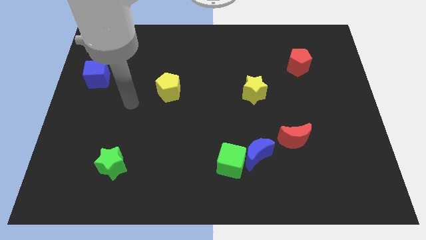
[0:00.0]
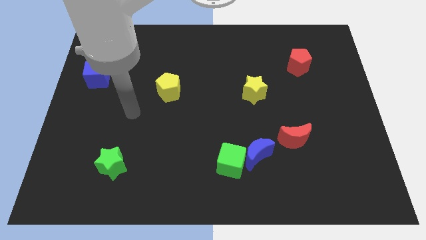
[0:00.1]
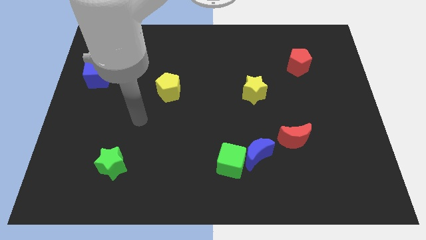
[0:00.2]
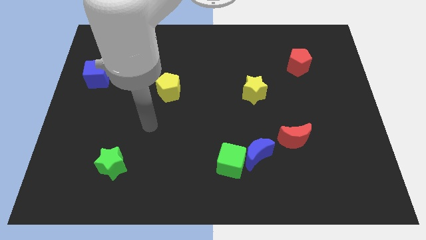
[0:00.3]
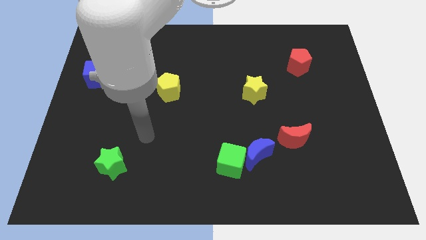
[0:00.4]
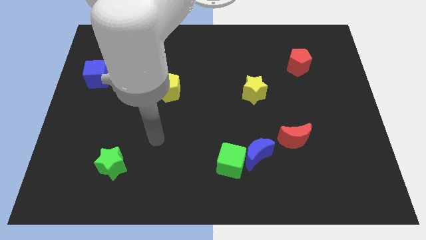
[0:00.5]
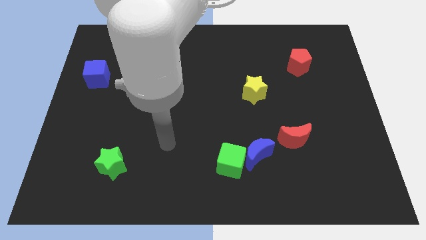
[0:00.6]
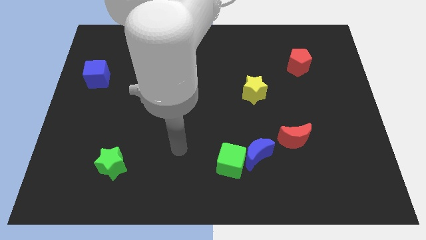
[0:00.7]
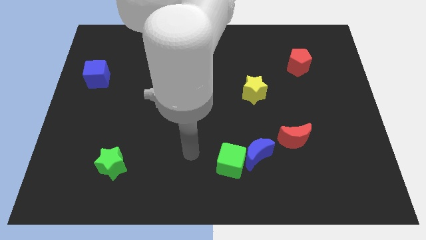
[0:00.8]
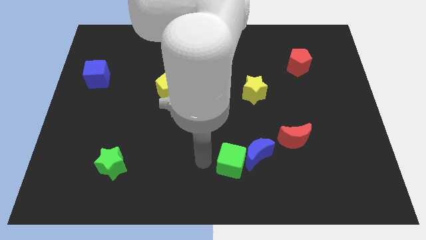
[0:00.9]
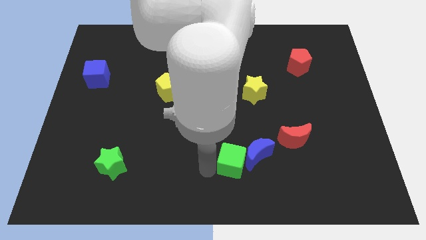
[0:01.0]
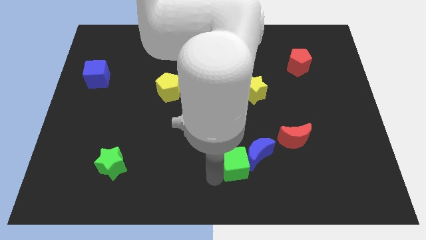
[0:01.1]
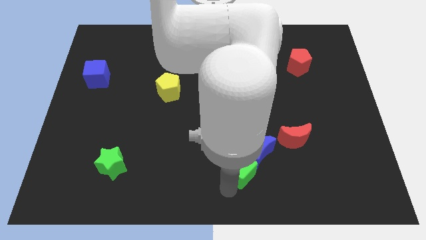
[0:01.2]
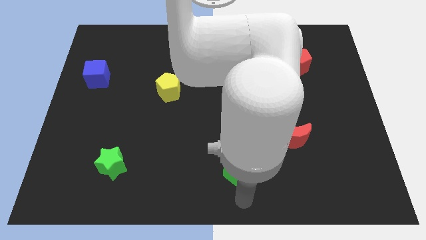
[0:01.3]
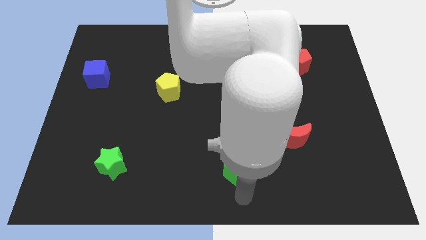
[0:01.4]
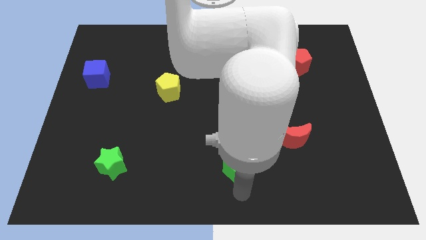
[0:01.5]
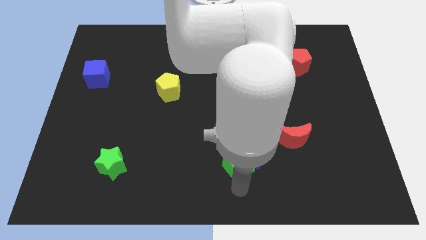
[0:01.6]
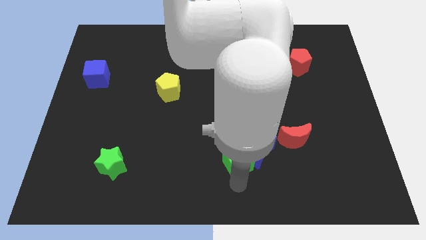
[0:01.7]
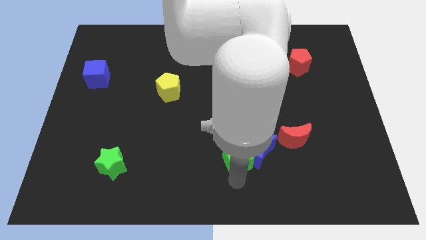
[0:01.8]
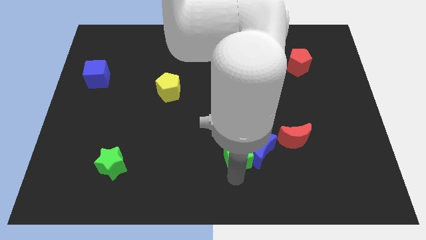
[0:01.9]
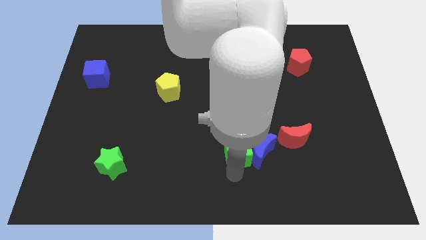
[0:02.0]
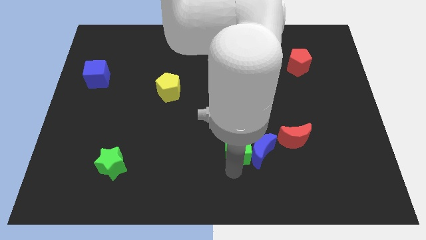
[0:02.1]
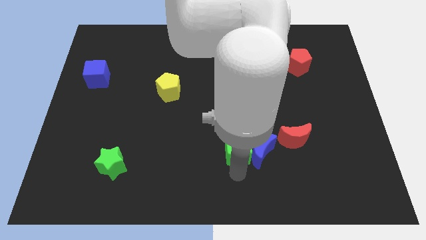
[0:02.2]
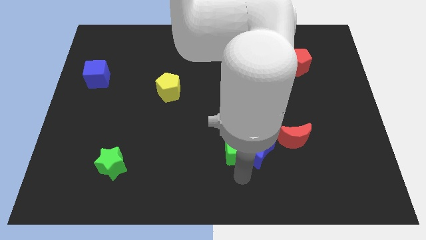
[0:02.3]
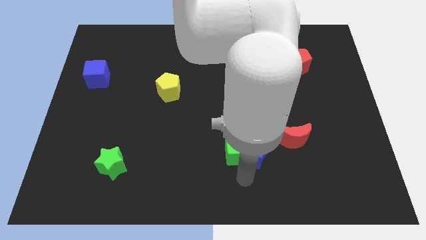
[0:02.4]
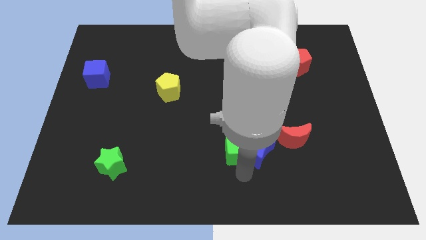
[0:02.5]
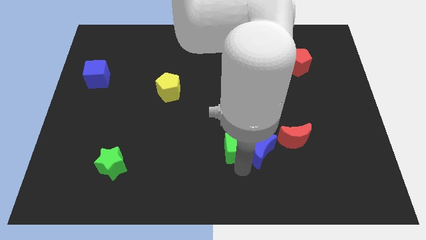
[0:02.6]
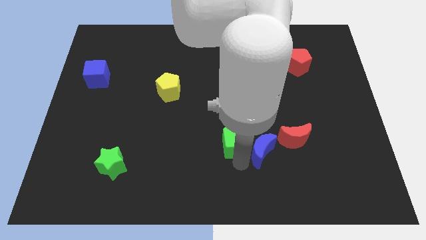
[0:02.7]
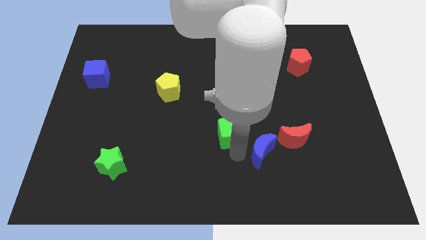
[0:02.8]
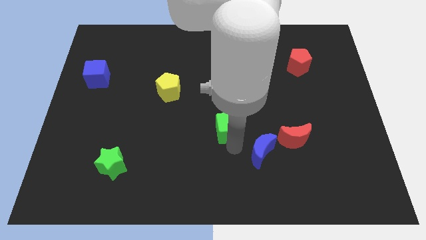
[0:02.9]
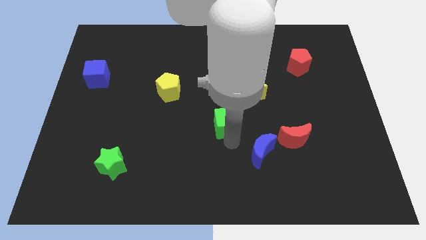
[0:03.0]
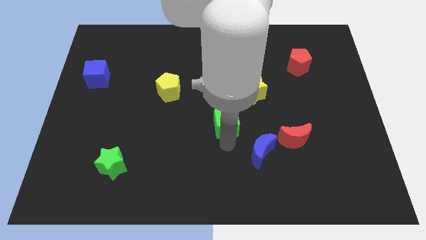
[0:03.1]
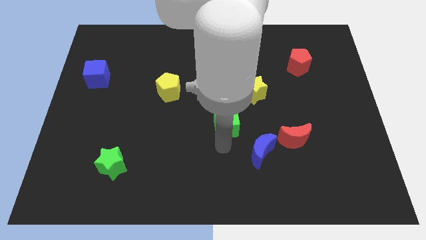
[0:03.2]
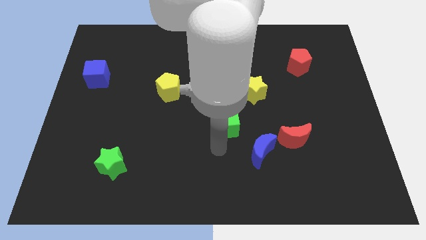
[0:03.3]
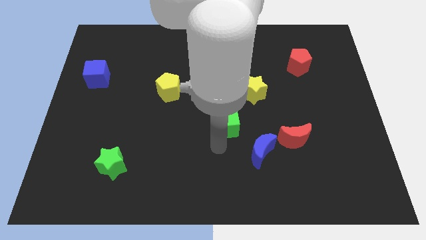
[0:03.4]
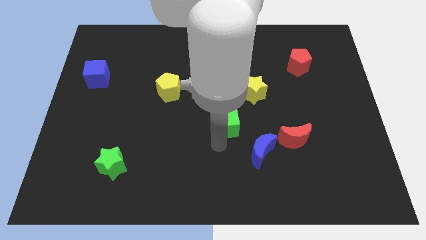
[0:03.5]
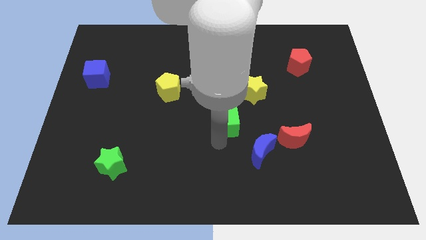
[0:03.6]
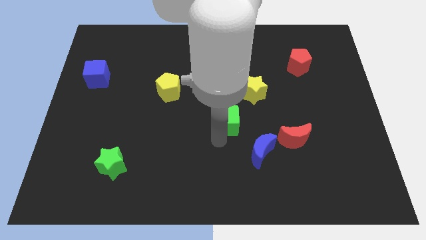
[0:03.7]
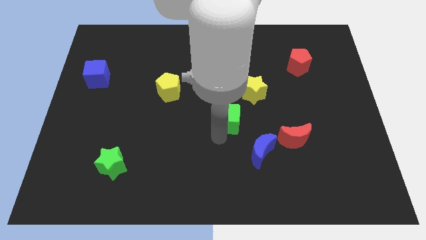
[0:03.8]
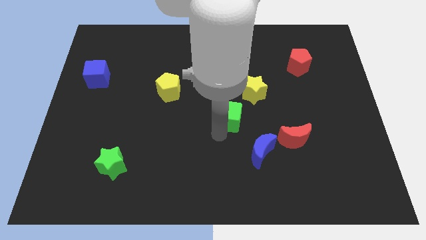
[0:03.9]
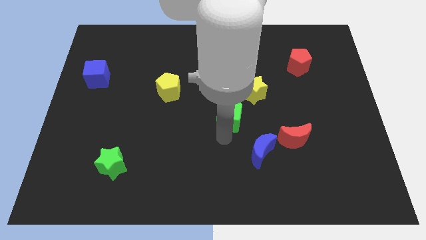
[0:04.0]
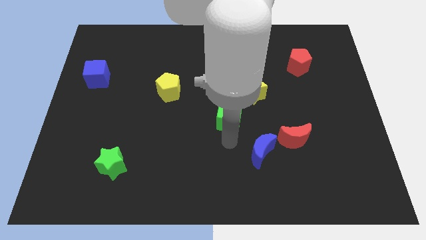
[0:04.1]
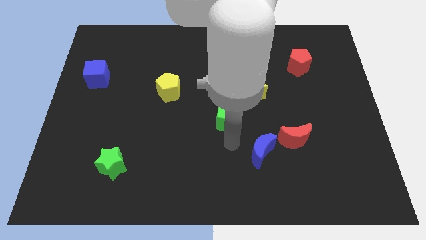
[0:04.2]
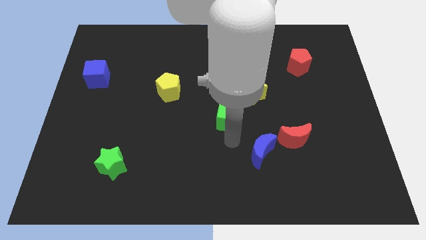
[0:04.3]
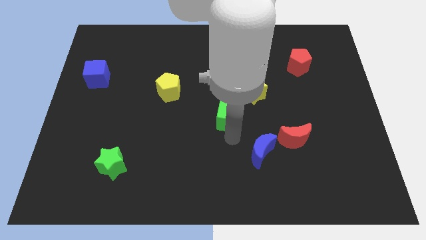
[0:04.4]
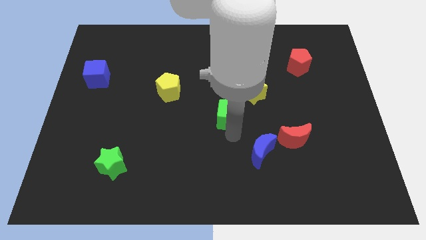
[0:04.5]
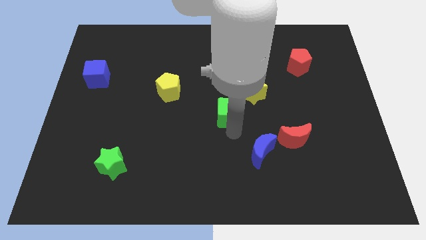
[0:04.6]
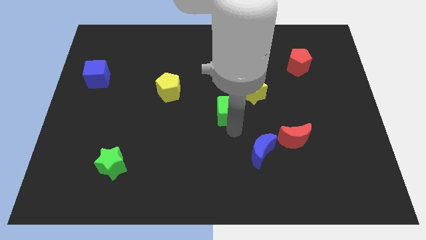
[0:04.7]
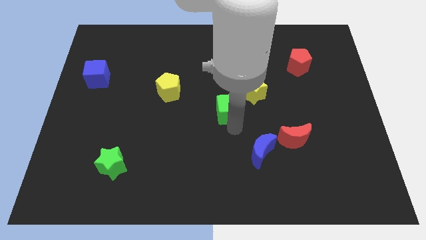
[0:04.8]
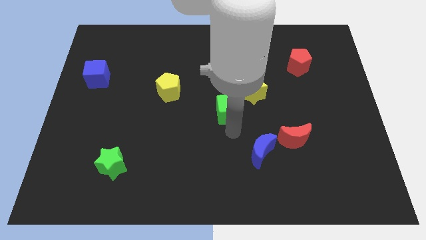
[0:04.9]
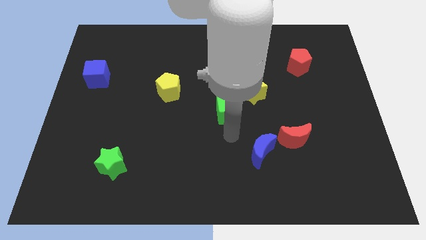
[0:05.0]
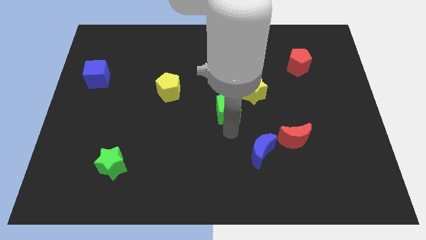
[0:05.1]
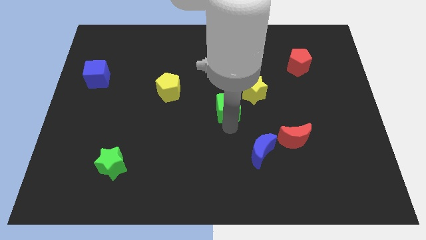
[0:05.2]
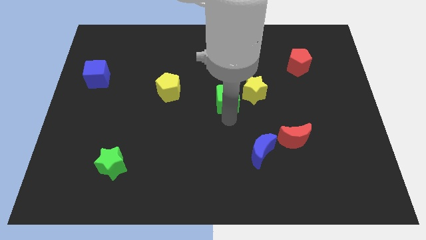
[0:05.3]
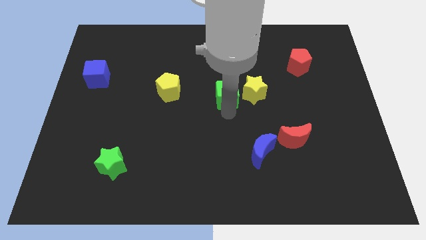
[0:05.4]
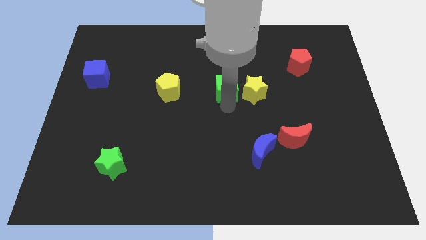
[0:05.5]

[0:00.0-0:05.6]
slide the green cube upwards

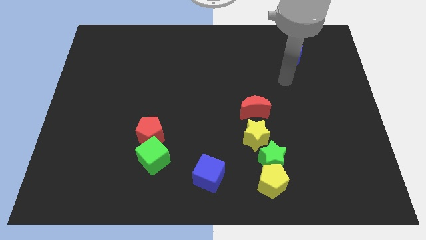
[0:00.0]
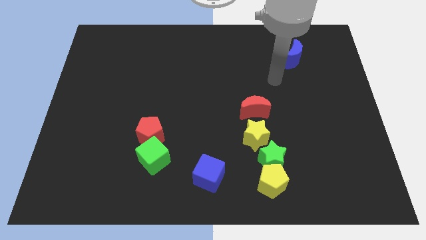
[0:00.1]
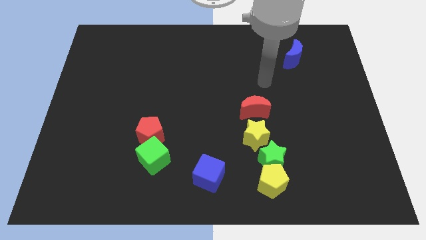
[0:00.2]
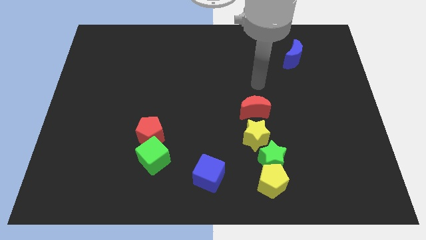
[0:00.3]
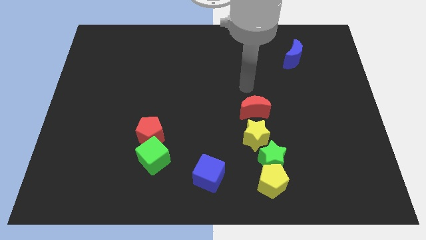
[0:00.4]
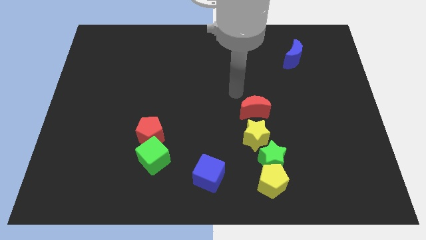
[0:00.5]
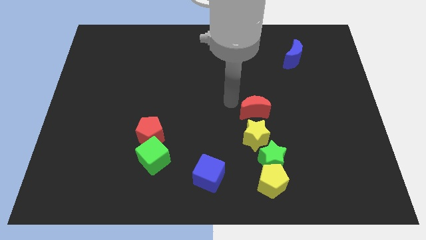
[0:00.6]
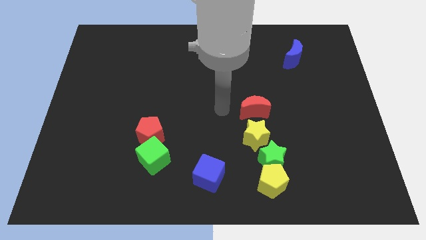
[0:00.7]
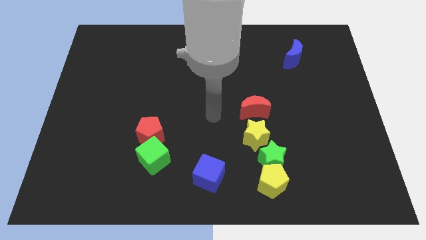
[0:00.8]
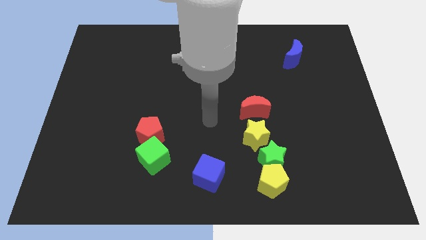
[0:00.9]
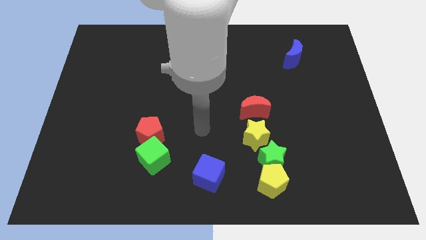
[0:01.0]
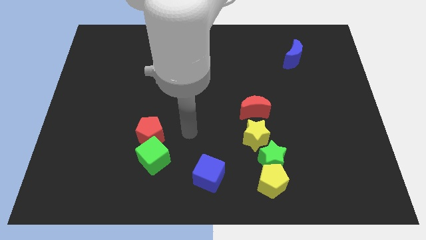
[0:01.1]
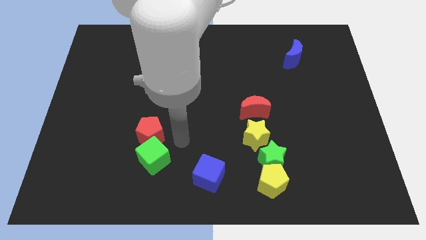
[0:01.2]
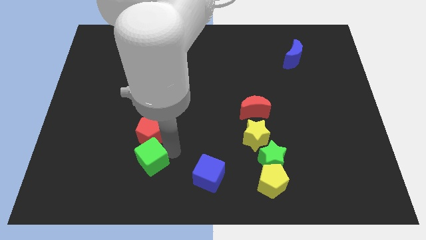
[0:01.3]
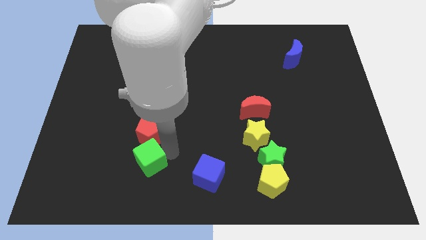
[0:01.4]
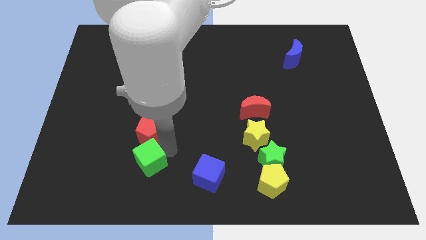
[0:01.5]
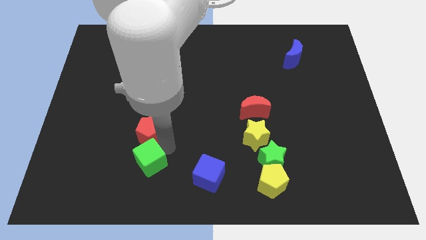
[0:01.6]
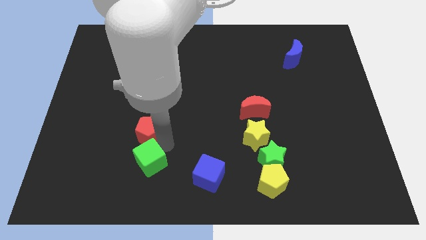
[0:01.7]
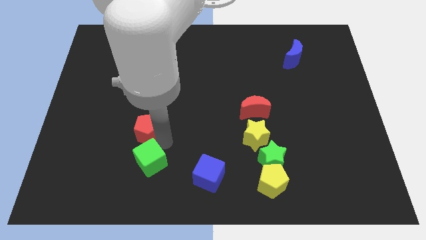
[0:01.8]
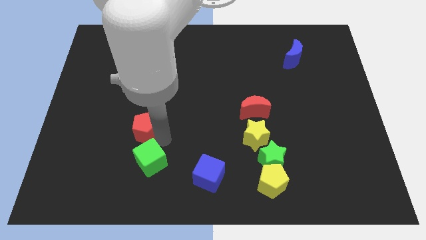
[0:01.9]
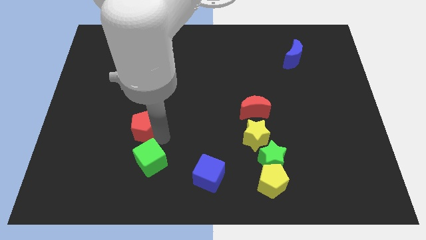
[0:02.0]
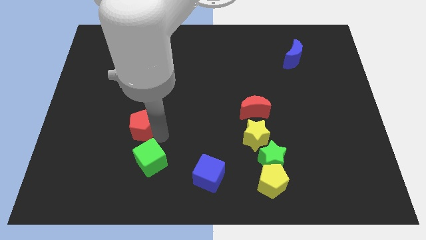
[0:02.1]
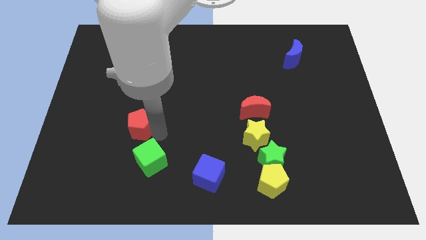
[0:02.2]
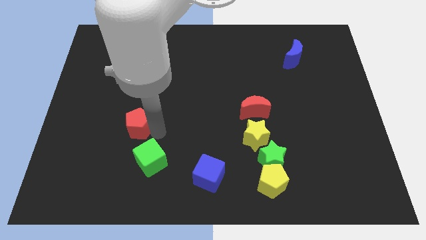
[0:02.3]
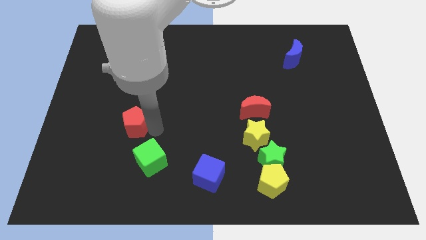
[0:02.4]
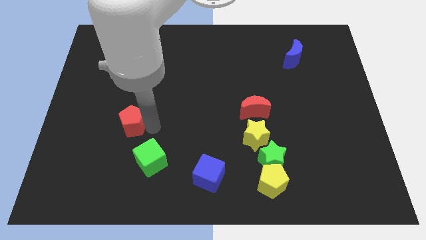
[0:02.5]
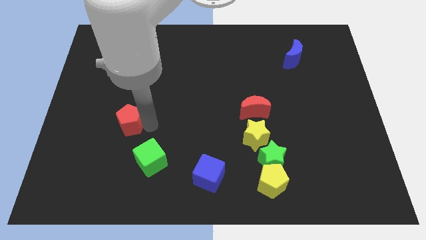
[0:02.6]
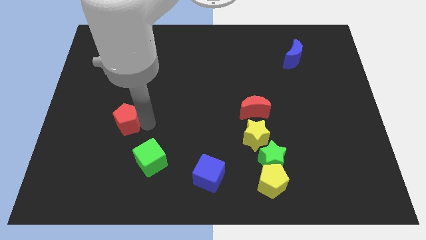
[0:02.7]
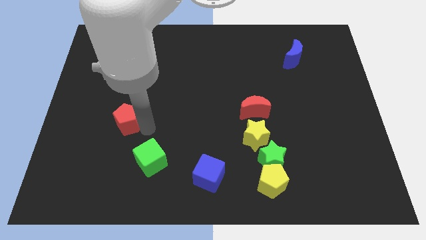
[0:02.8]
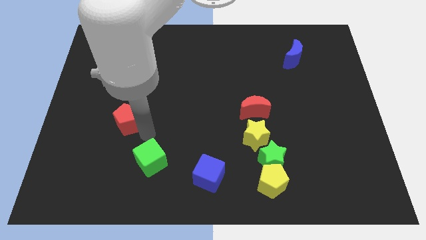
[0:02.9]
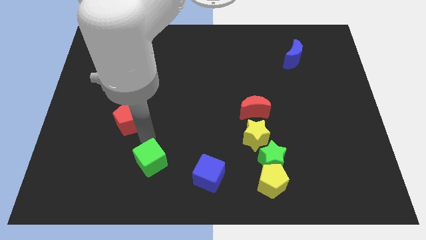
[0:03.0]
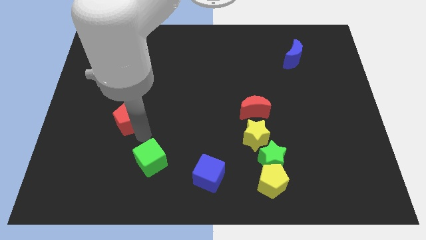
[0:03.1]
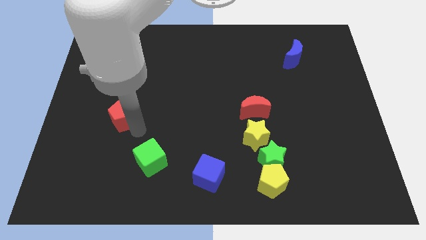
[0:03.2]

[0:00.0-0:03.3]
move the red pentagon a bit up and to the left
